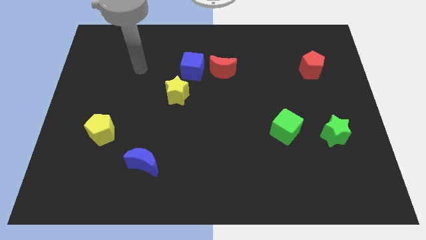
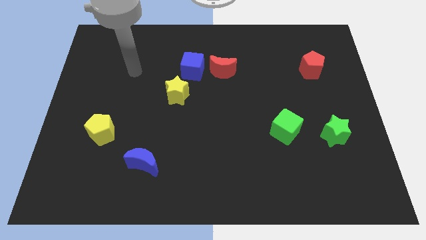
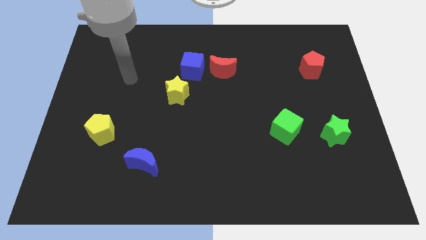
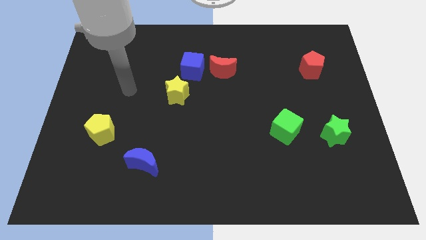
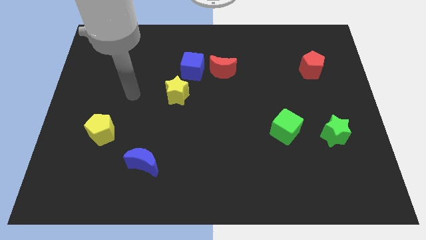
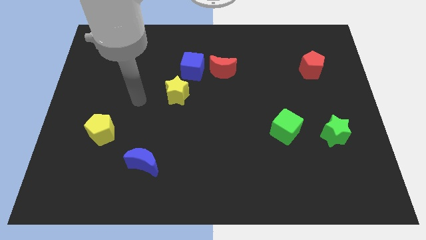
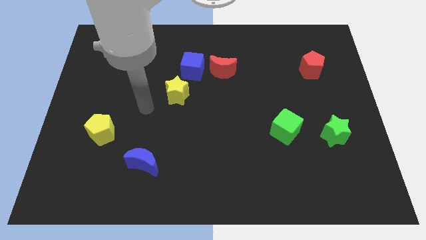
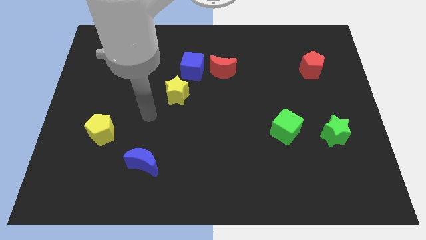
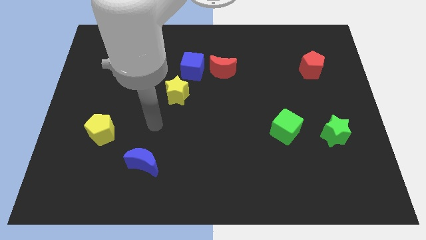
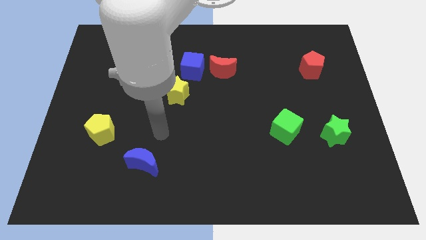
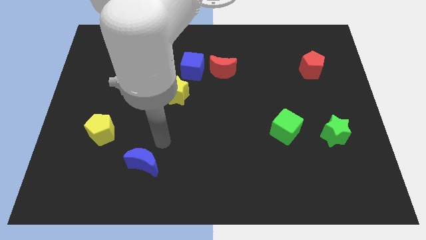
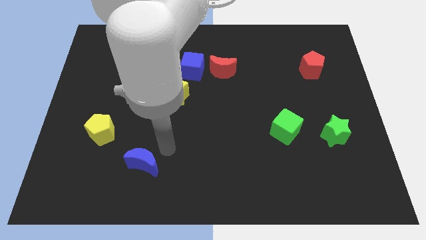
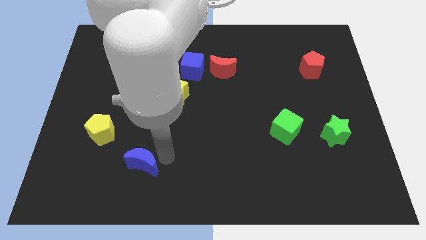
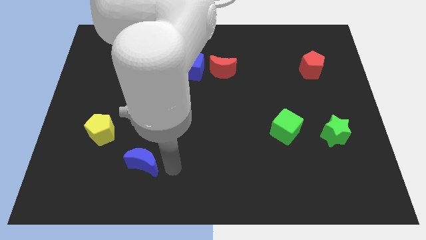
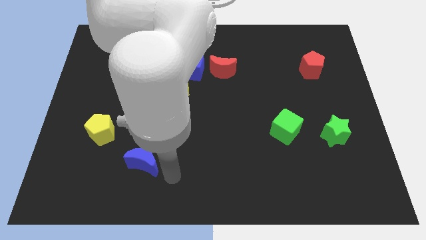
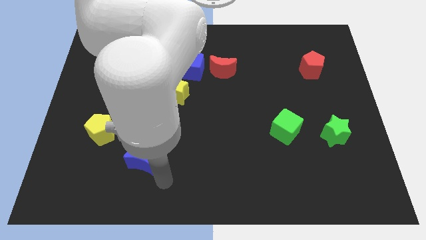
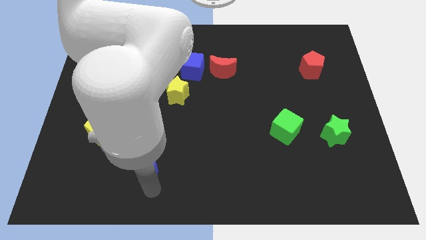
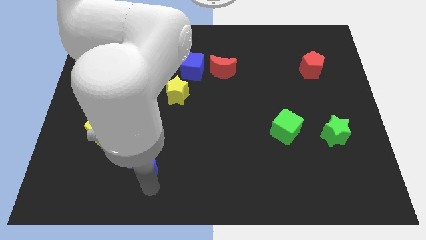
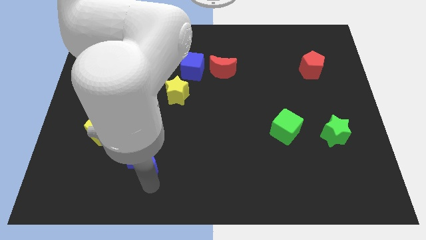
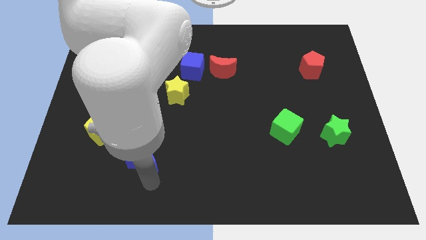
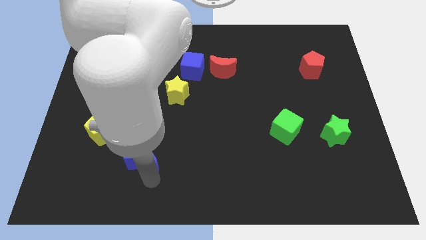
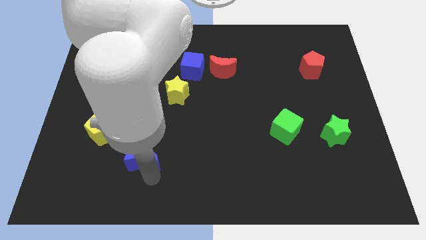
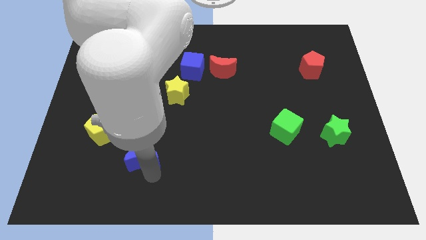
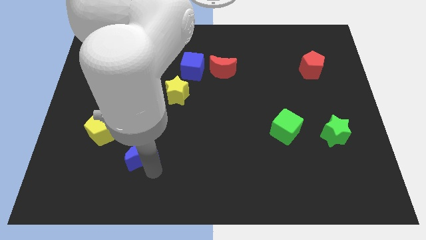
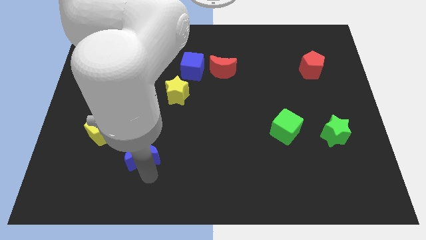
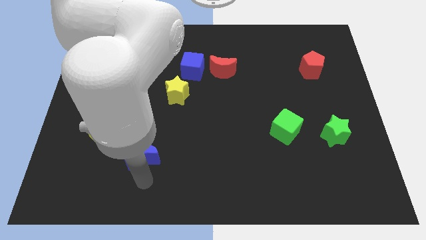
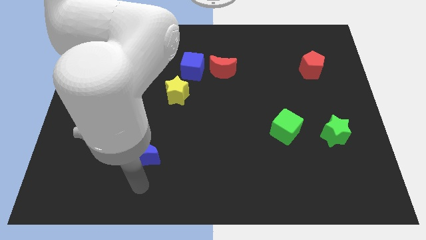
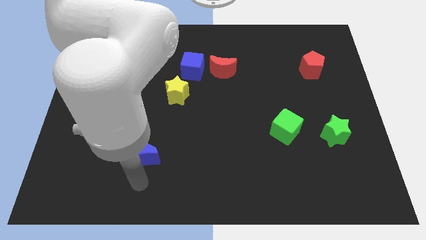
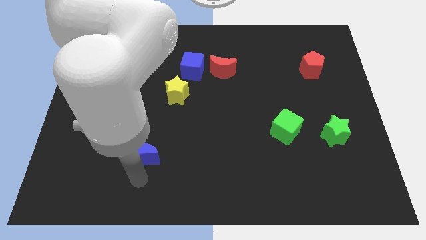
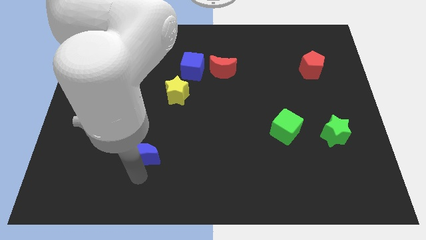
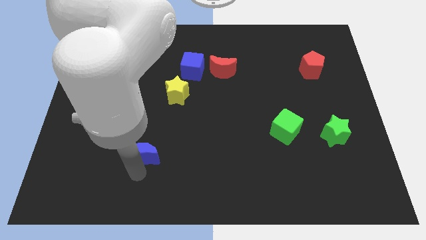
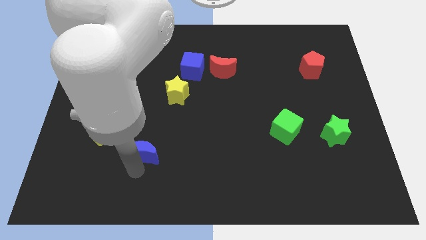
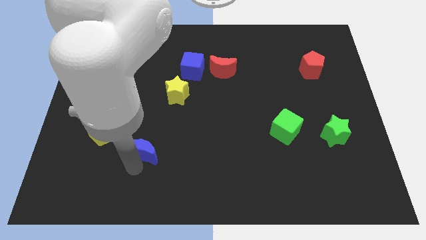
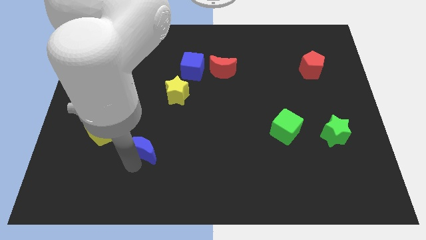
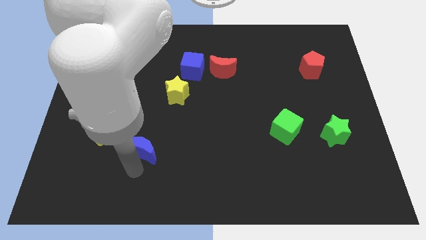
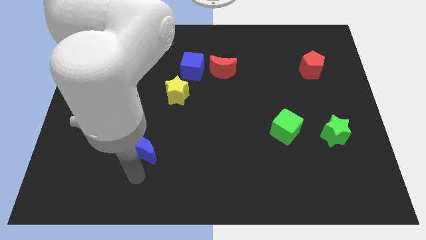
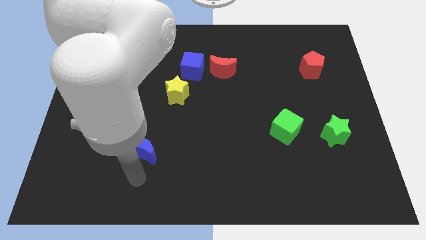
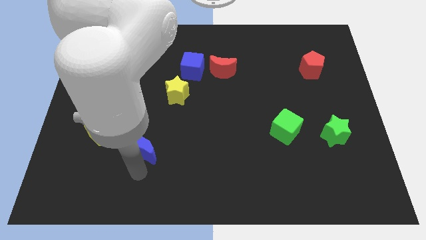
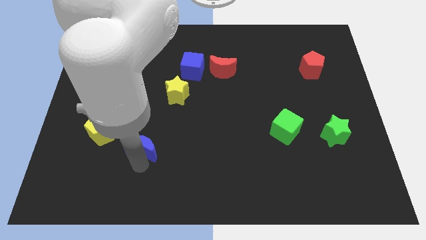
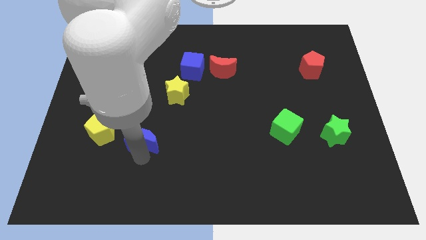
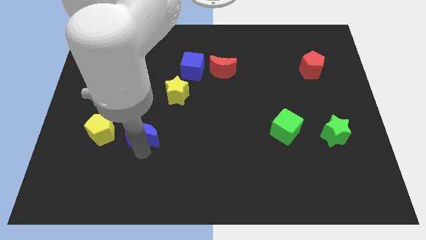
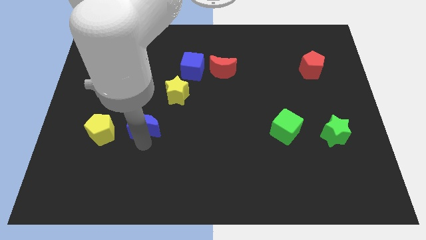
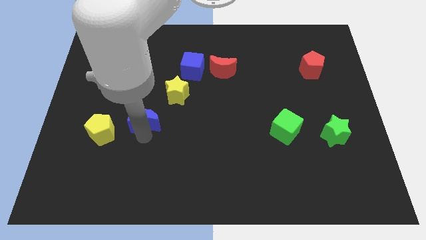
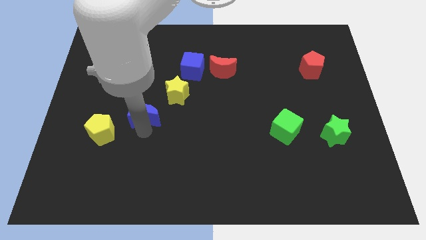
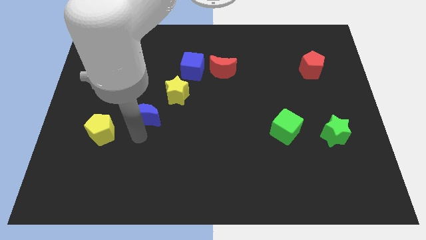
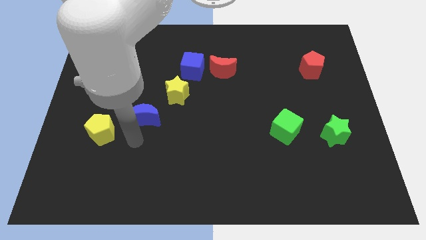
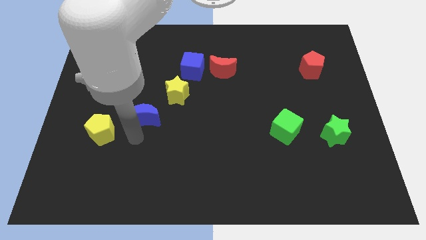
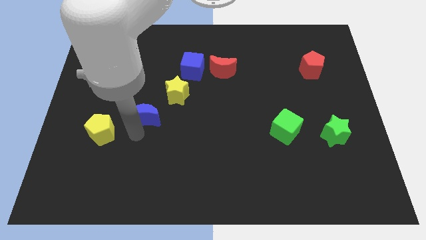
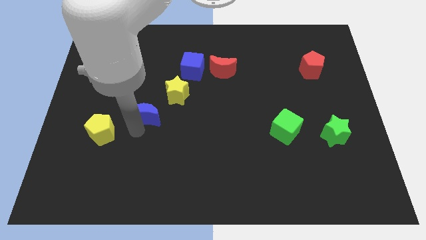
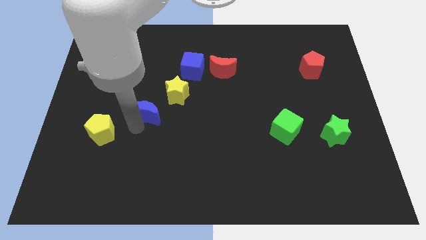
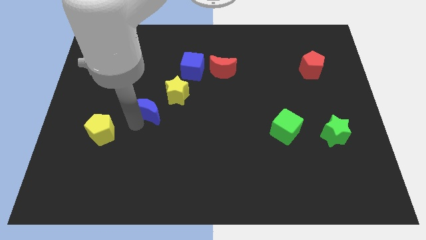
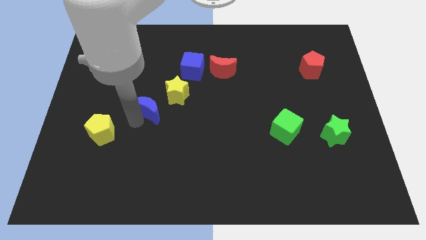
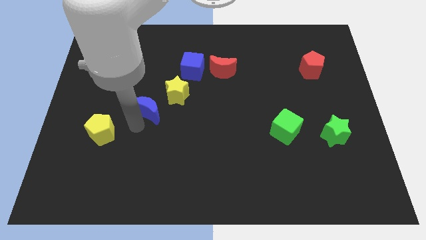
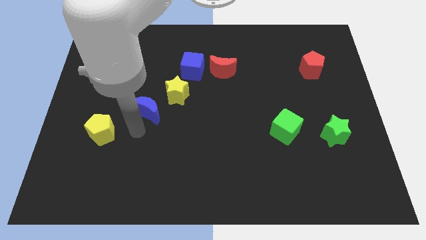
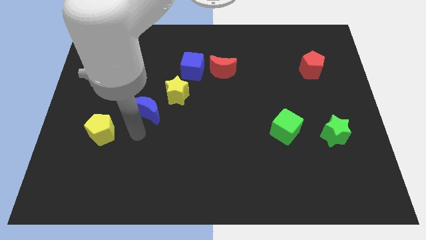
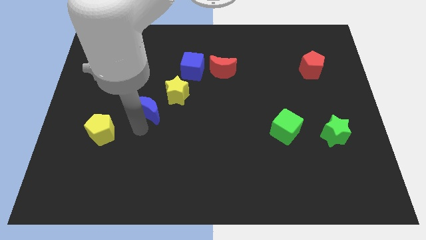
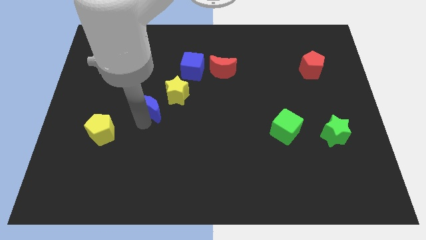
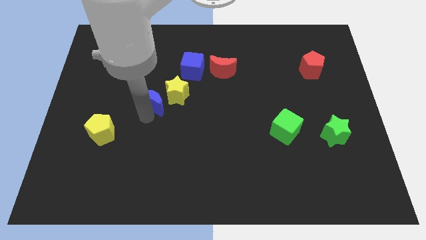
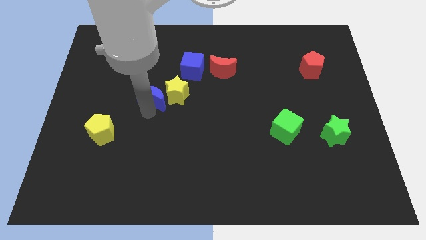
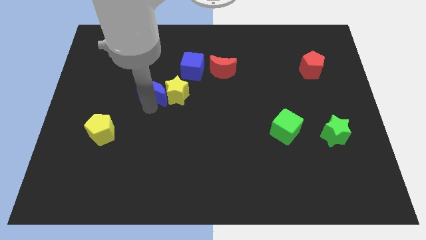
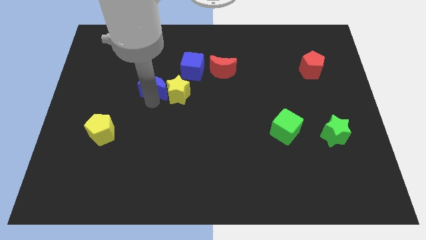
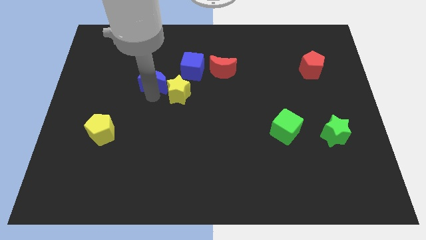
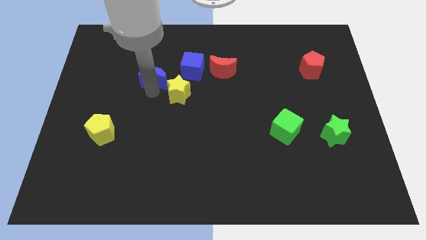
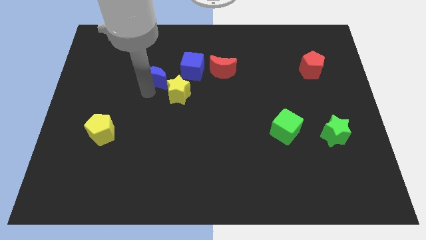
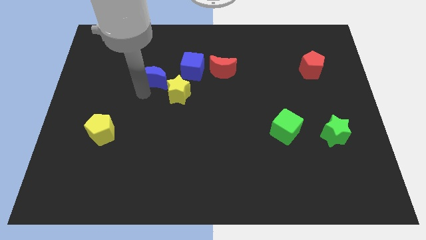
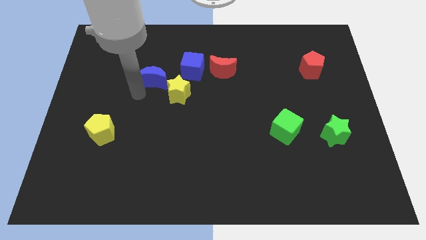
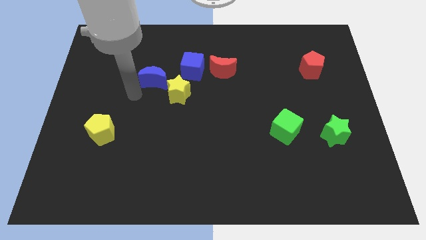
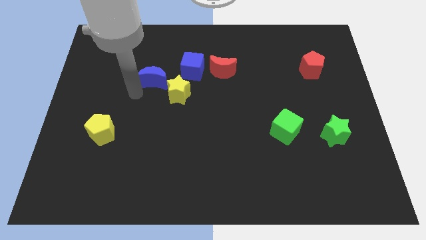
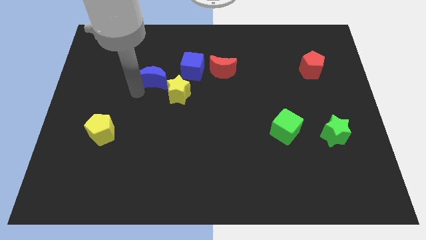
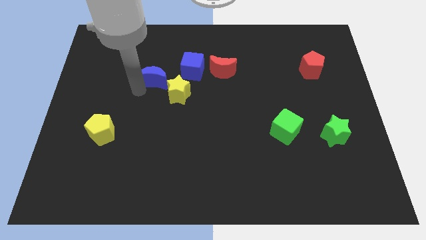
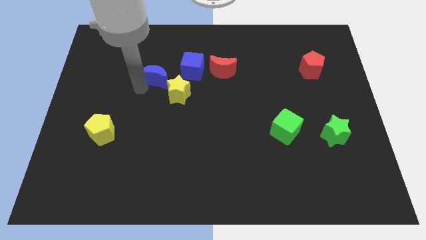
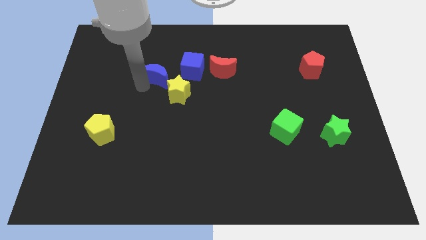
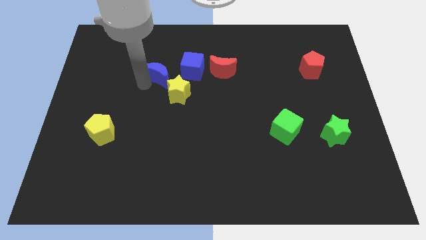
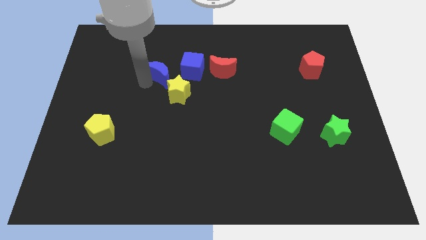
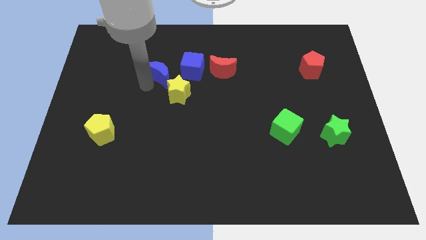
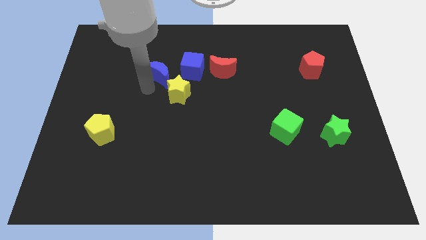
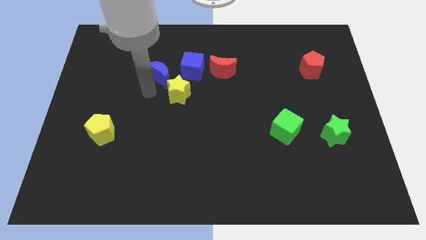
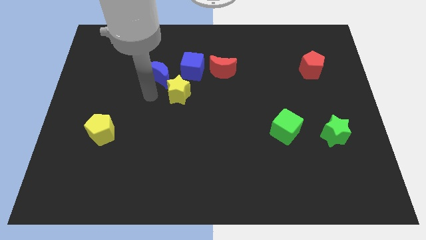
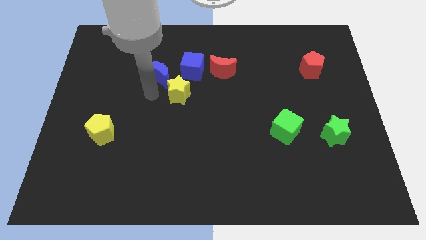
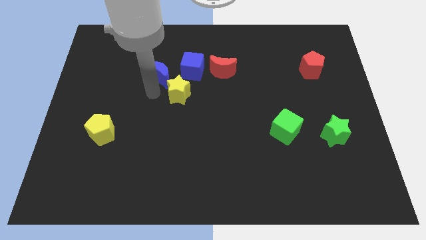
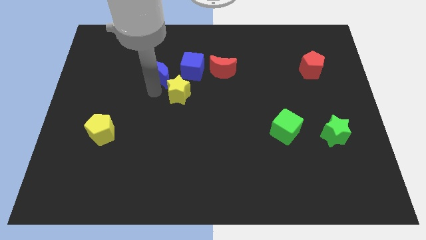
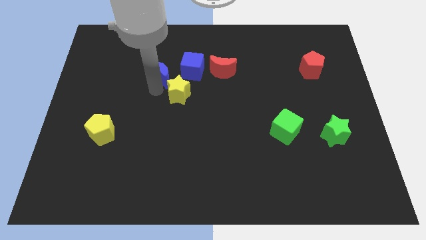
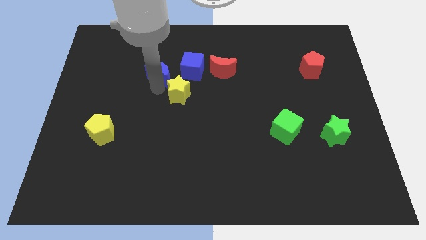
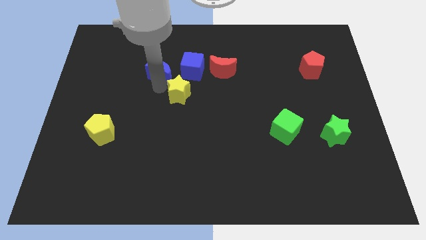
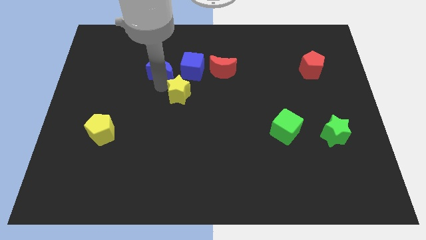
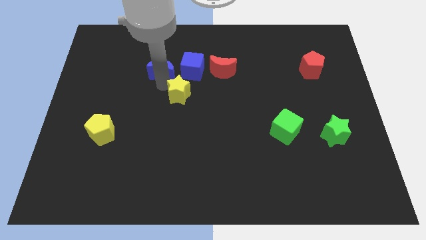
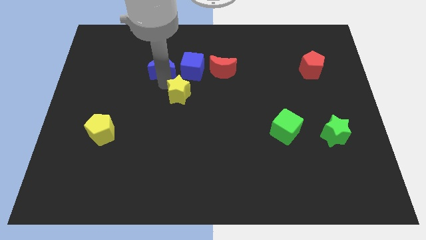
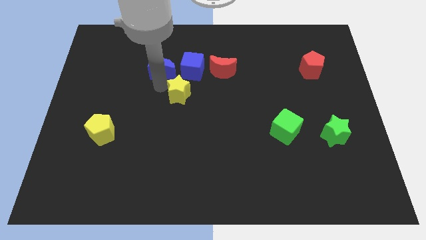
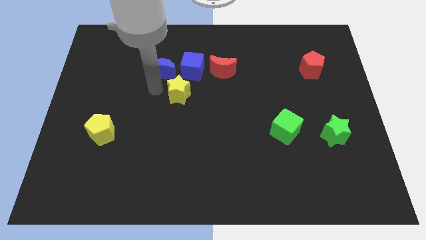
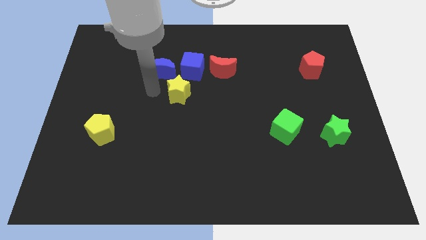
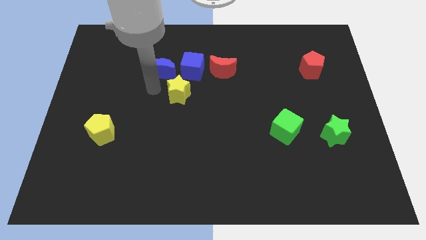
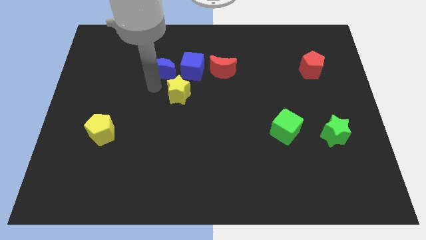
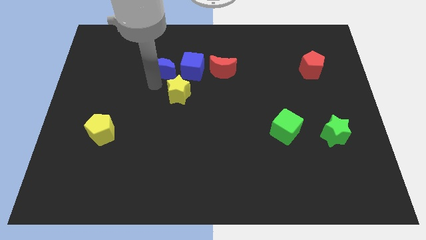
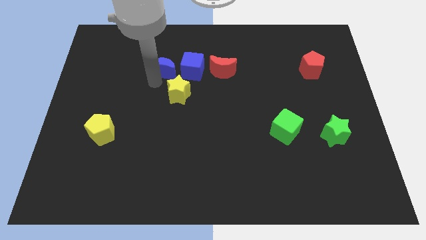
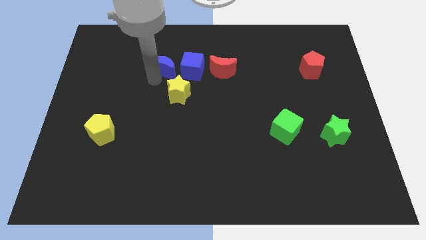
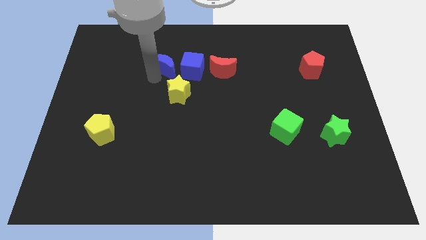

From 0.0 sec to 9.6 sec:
move the blue moon to the top left of the blue cube
